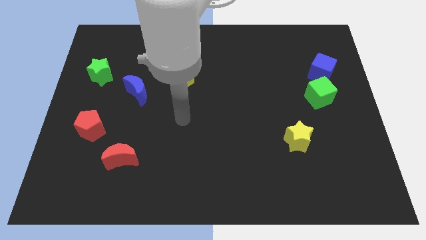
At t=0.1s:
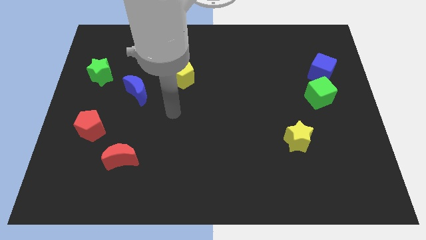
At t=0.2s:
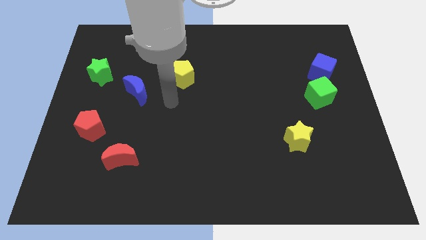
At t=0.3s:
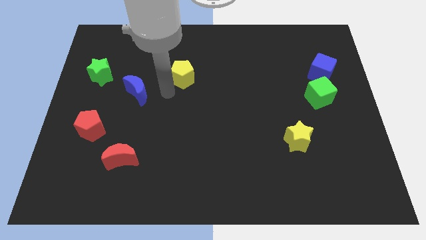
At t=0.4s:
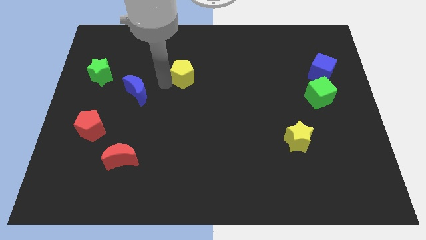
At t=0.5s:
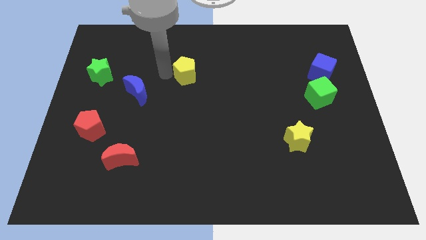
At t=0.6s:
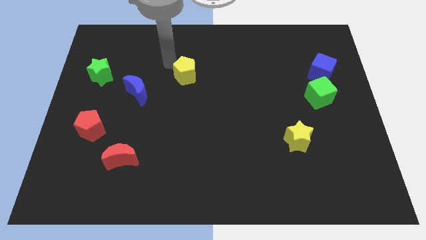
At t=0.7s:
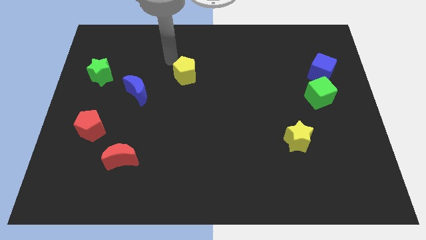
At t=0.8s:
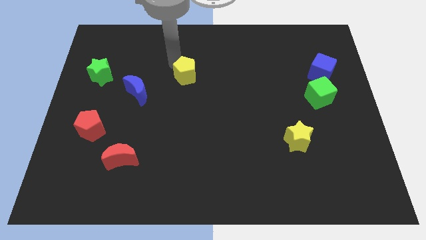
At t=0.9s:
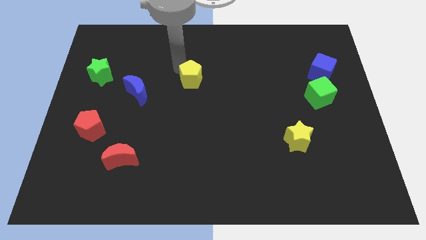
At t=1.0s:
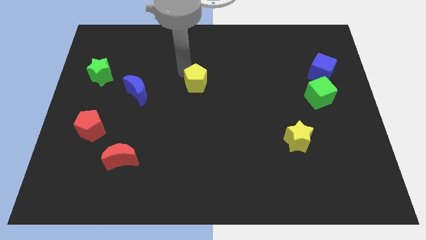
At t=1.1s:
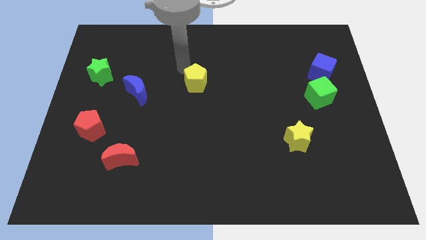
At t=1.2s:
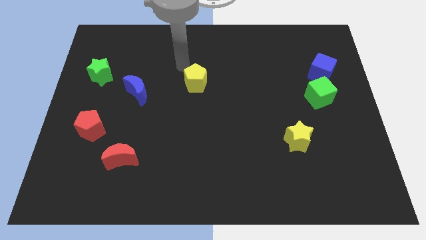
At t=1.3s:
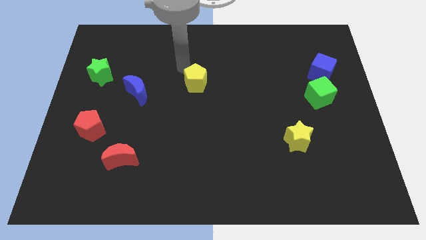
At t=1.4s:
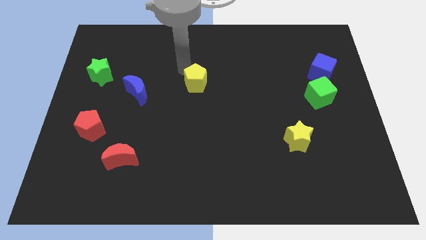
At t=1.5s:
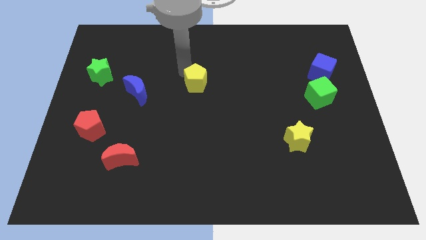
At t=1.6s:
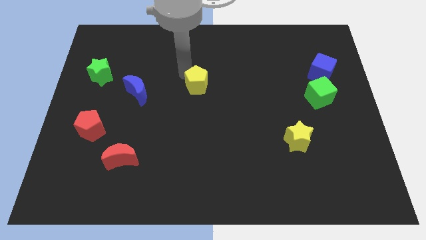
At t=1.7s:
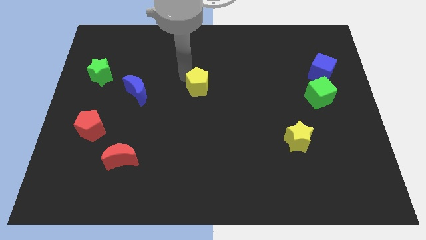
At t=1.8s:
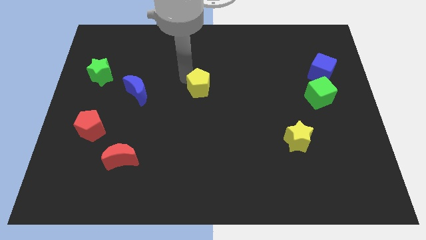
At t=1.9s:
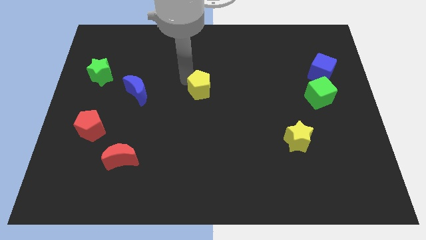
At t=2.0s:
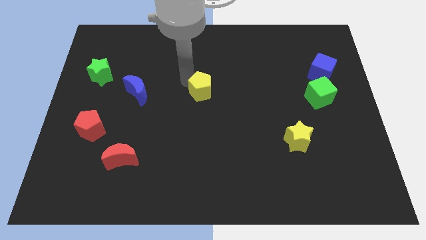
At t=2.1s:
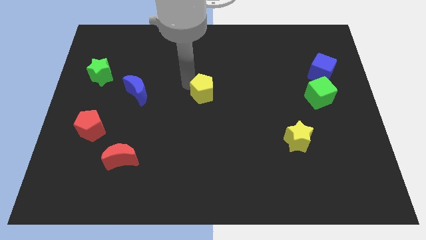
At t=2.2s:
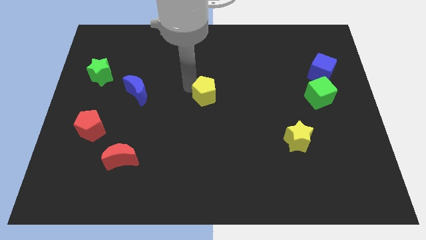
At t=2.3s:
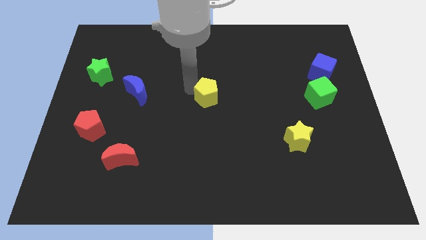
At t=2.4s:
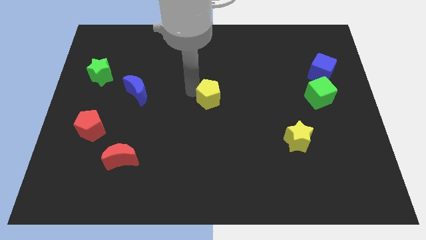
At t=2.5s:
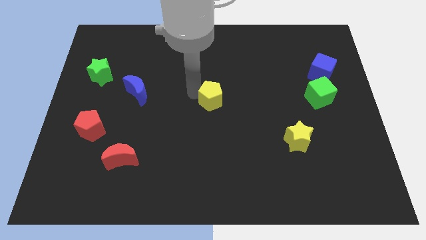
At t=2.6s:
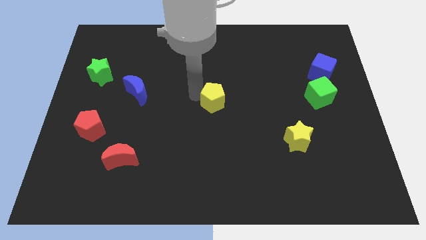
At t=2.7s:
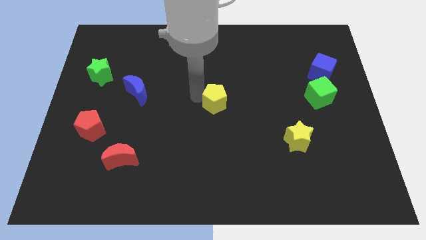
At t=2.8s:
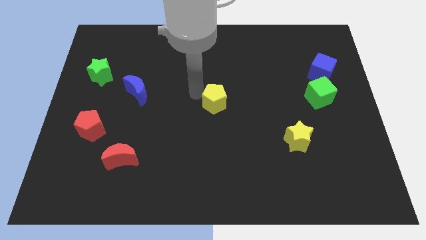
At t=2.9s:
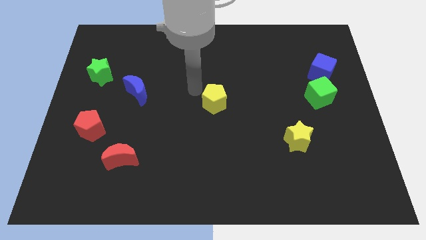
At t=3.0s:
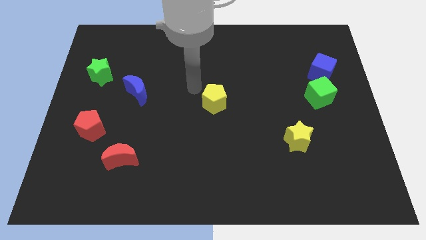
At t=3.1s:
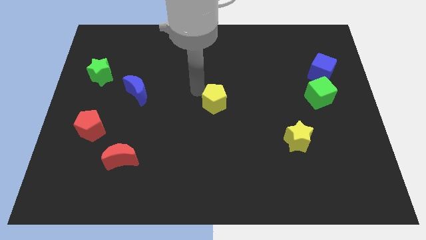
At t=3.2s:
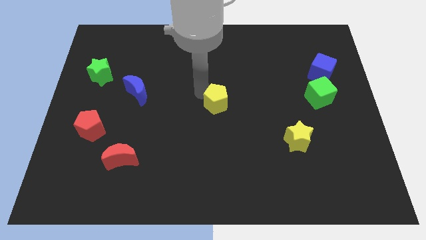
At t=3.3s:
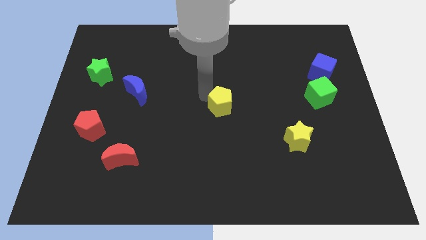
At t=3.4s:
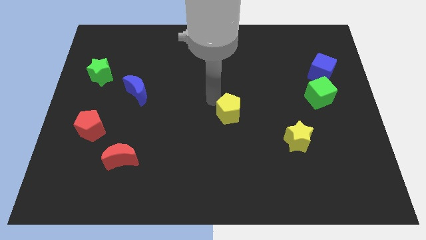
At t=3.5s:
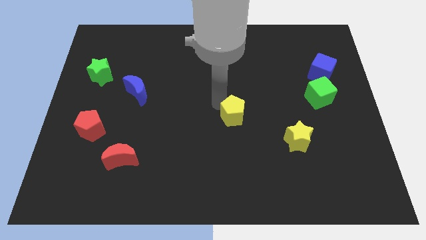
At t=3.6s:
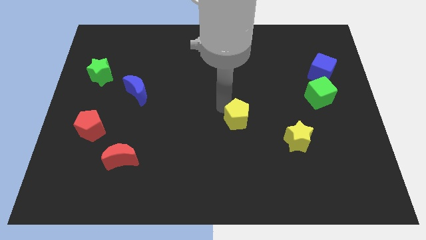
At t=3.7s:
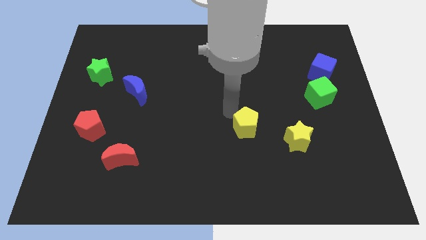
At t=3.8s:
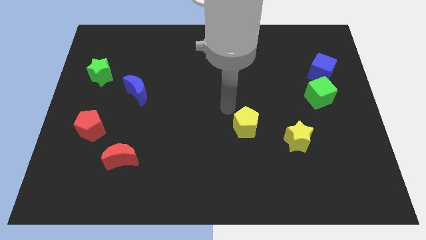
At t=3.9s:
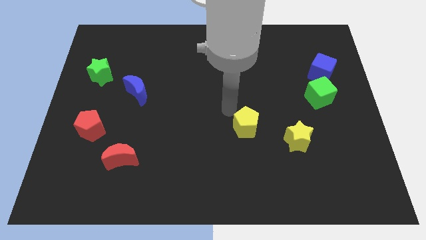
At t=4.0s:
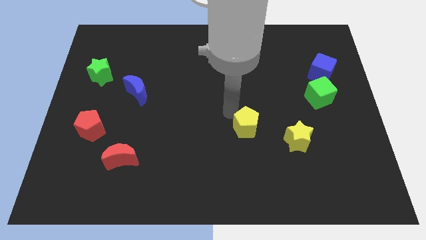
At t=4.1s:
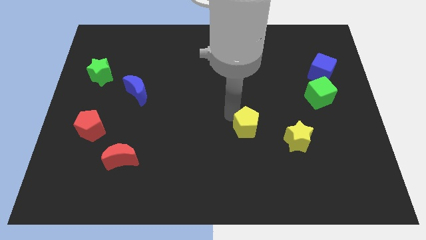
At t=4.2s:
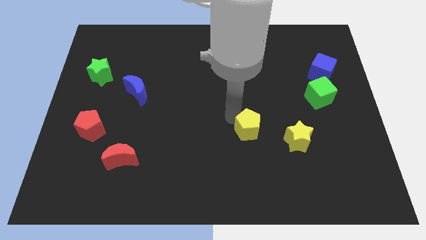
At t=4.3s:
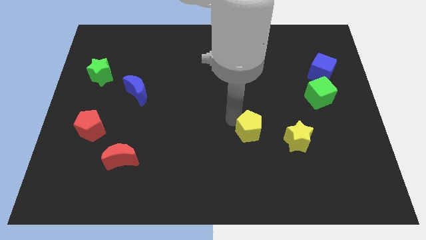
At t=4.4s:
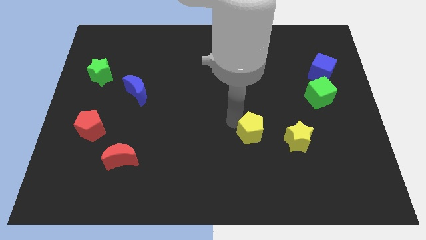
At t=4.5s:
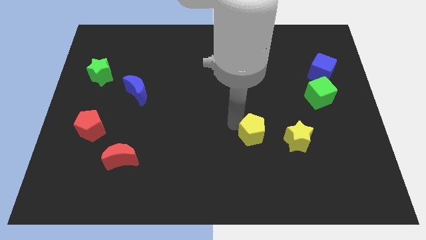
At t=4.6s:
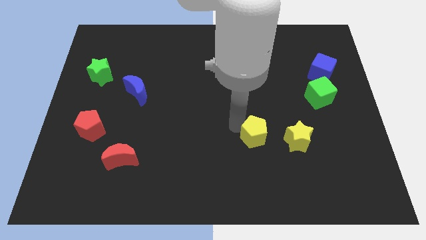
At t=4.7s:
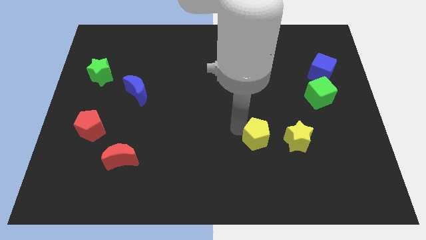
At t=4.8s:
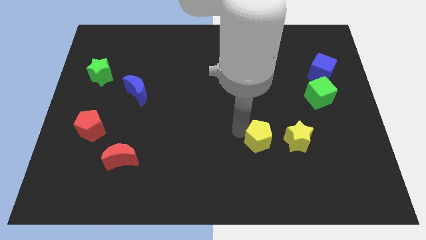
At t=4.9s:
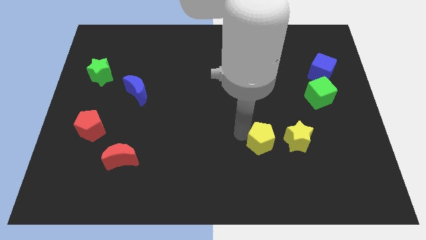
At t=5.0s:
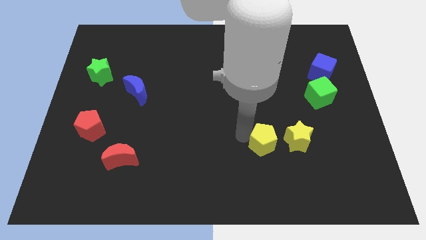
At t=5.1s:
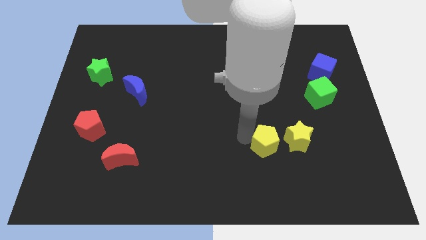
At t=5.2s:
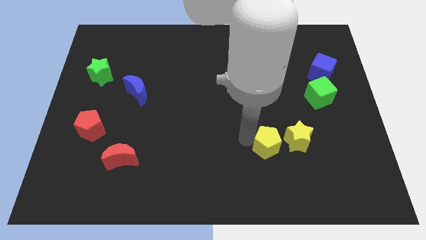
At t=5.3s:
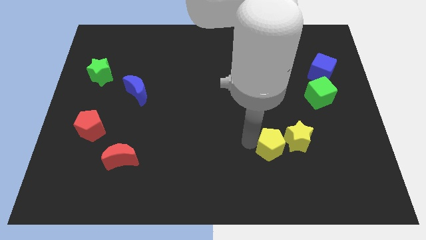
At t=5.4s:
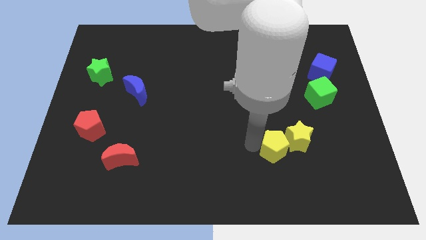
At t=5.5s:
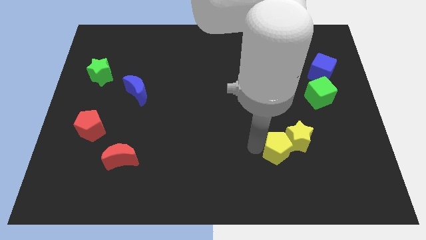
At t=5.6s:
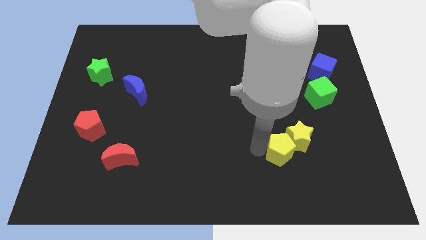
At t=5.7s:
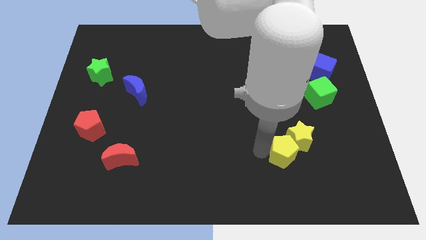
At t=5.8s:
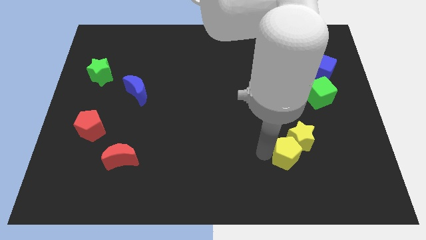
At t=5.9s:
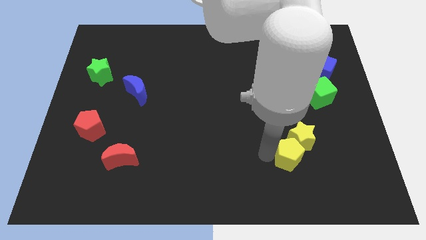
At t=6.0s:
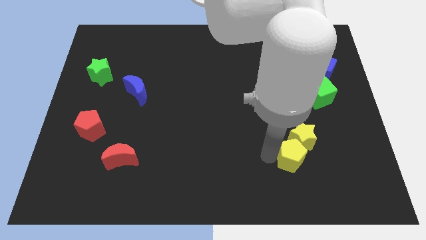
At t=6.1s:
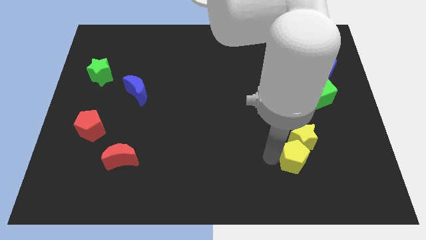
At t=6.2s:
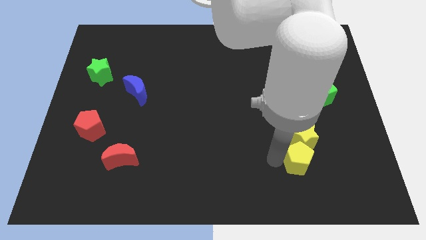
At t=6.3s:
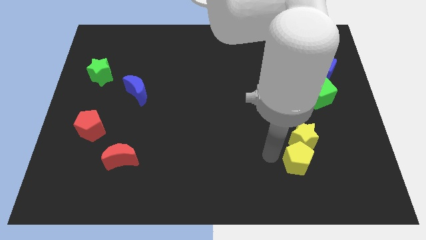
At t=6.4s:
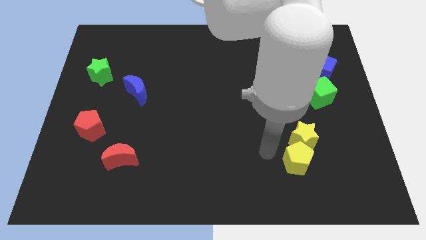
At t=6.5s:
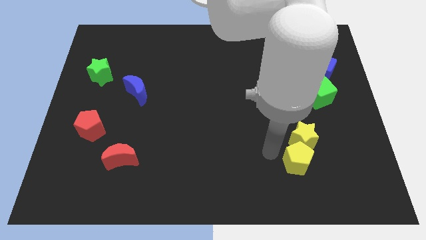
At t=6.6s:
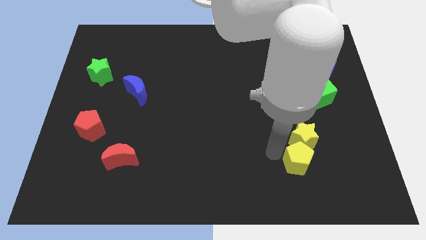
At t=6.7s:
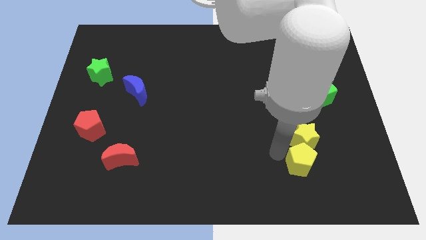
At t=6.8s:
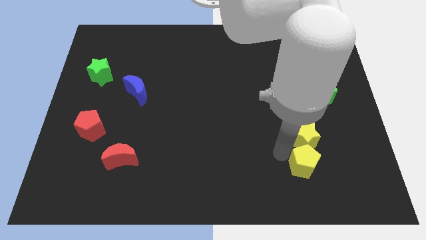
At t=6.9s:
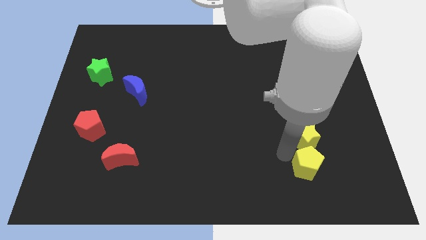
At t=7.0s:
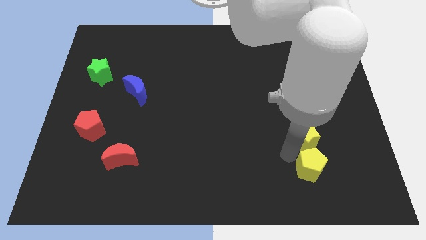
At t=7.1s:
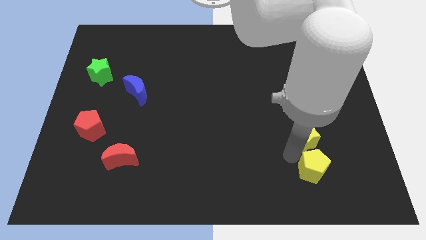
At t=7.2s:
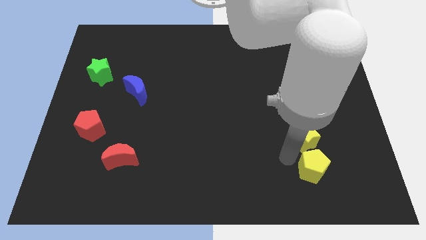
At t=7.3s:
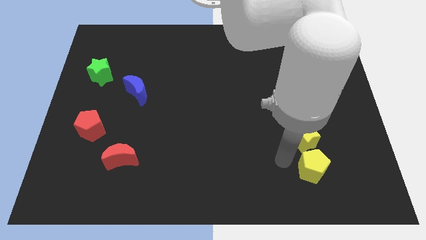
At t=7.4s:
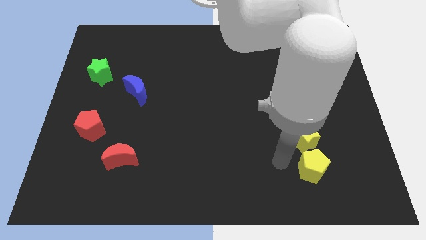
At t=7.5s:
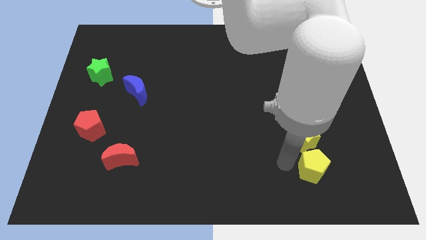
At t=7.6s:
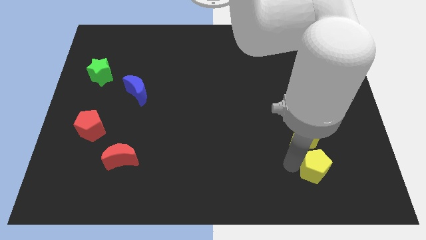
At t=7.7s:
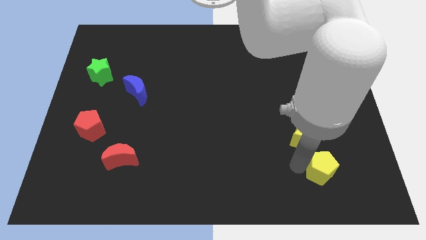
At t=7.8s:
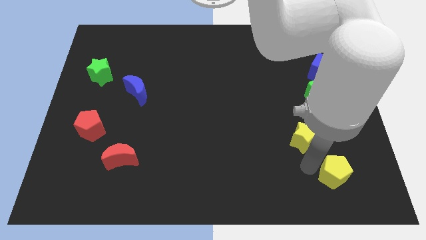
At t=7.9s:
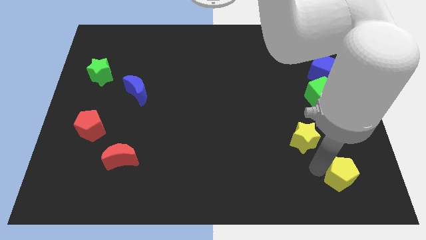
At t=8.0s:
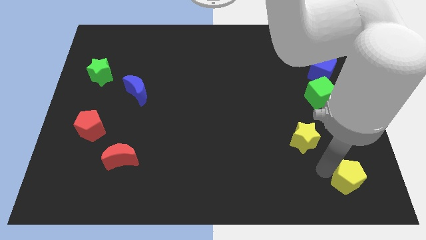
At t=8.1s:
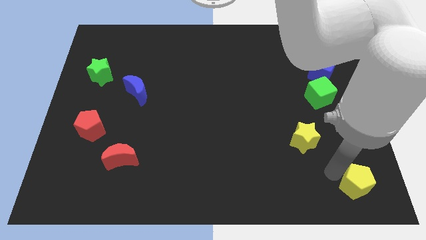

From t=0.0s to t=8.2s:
move the yellow pentagon to the bottom right of the board
